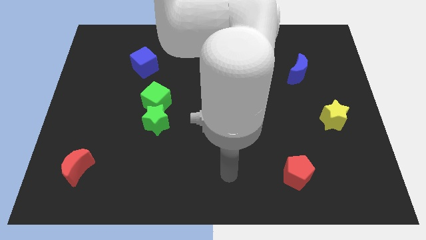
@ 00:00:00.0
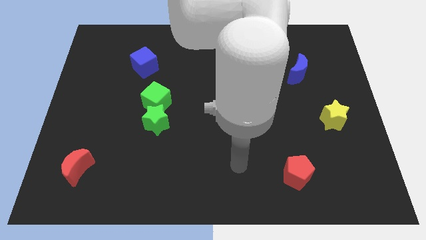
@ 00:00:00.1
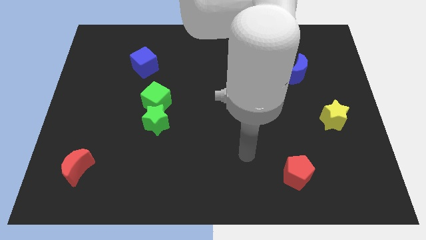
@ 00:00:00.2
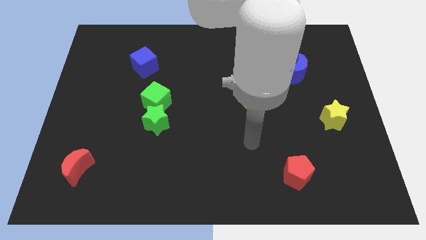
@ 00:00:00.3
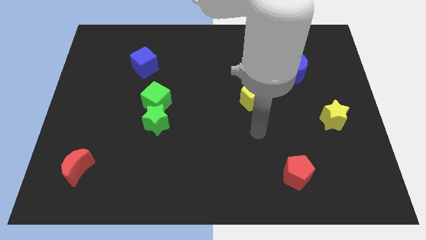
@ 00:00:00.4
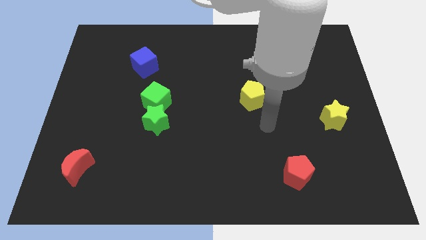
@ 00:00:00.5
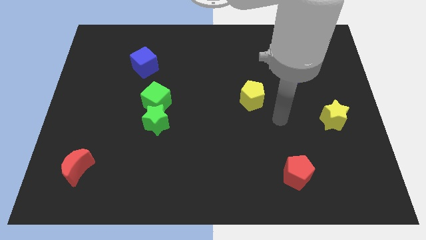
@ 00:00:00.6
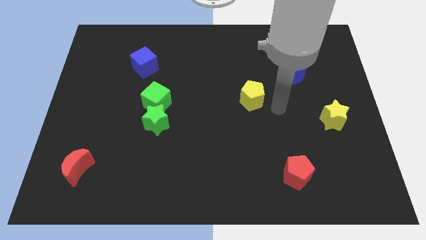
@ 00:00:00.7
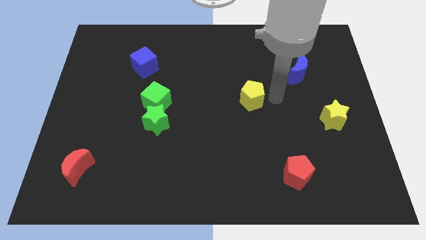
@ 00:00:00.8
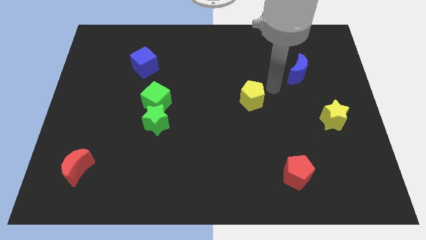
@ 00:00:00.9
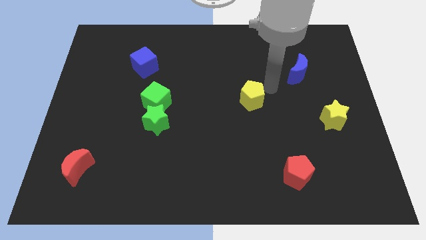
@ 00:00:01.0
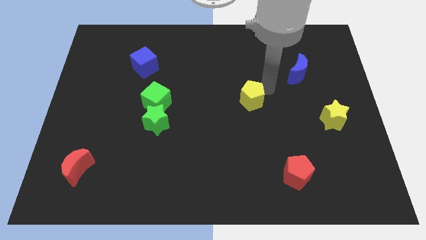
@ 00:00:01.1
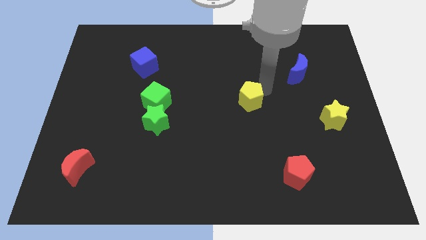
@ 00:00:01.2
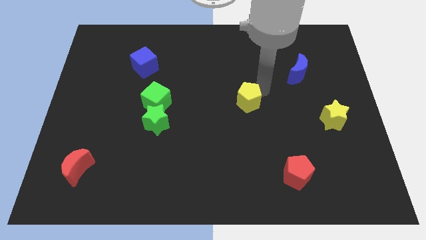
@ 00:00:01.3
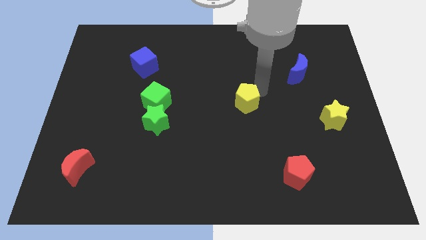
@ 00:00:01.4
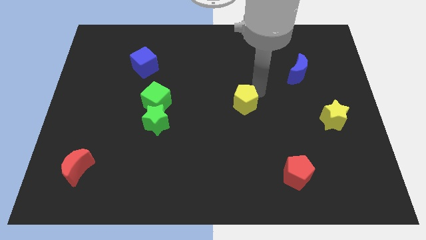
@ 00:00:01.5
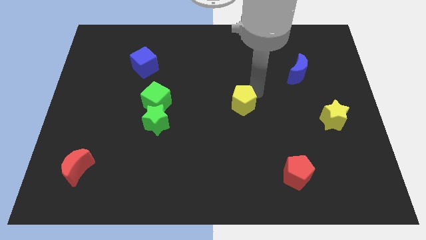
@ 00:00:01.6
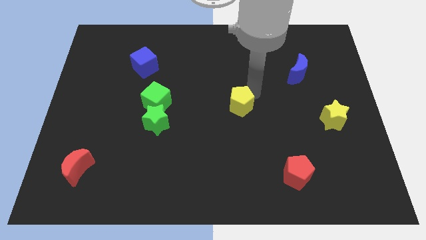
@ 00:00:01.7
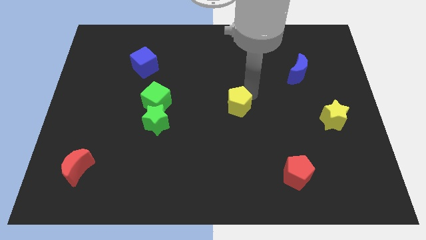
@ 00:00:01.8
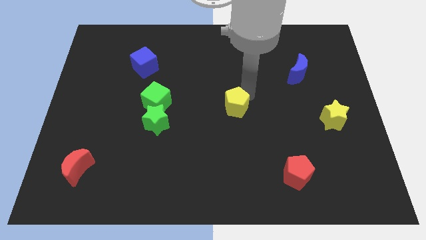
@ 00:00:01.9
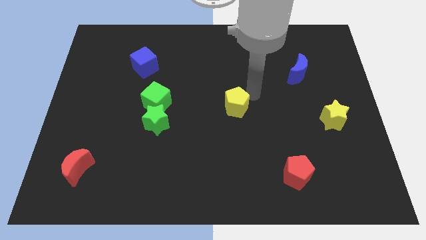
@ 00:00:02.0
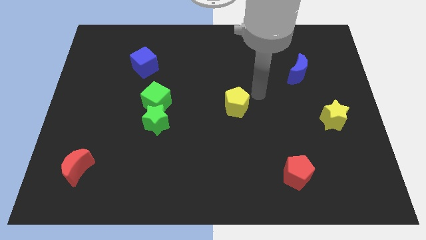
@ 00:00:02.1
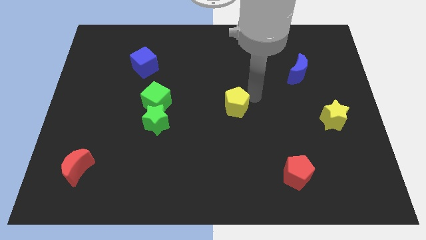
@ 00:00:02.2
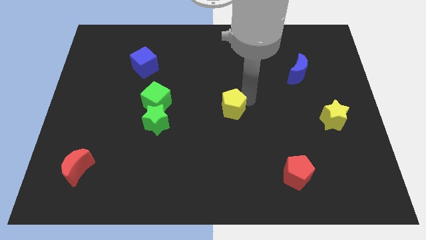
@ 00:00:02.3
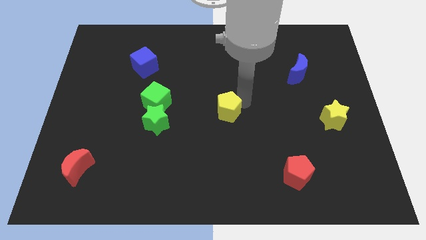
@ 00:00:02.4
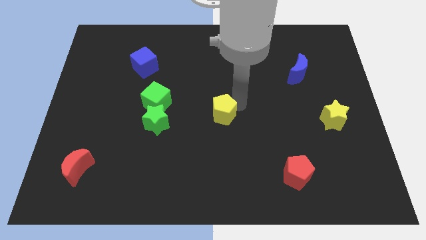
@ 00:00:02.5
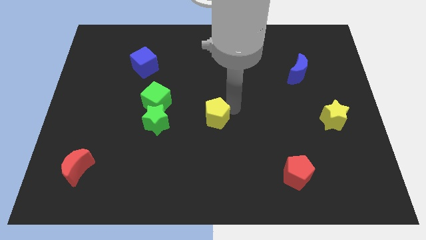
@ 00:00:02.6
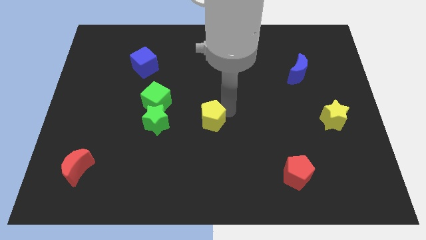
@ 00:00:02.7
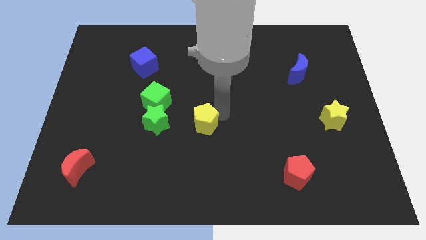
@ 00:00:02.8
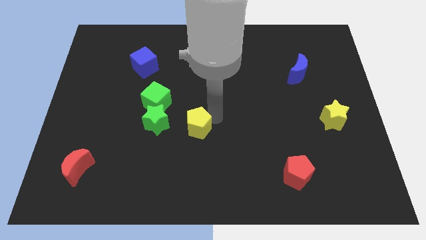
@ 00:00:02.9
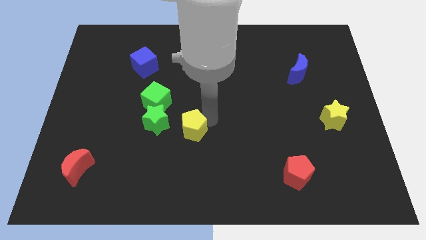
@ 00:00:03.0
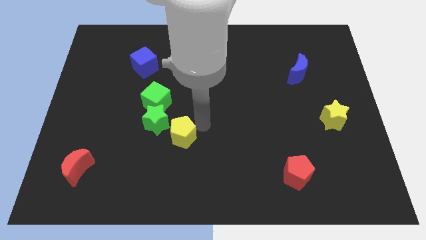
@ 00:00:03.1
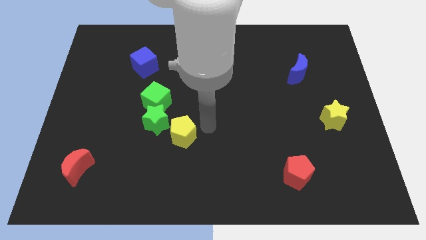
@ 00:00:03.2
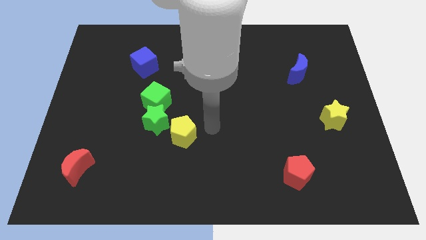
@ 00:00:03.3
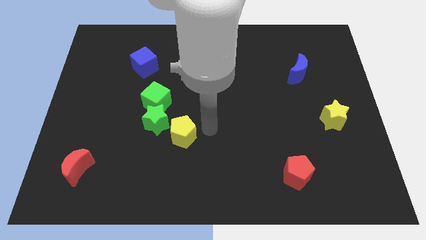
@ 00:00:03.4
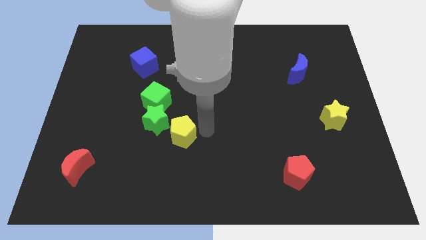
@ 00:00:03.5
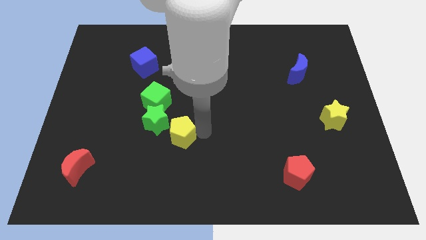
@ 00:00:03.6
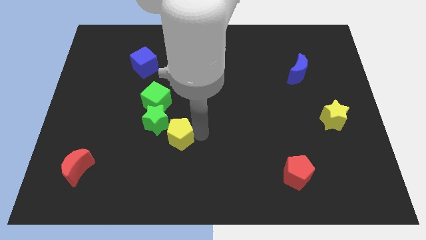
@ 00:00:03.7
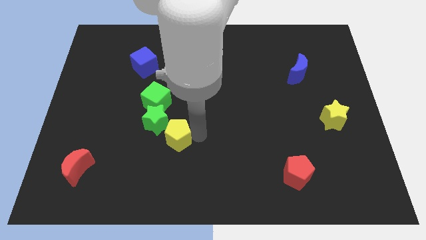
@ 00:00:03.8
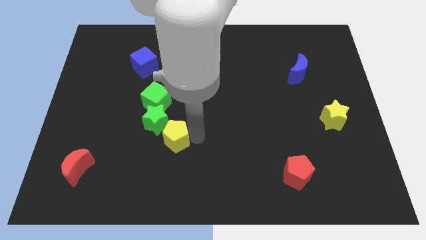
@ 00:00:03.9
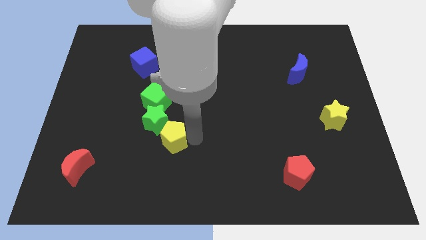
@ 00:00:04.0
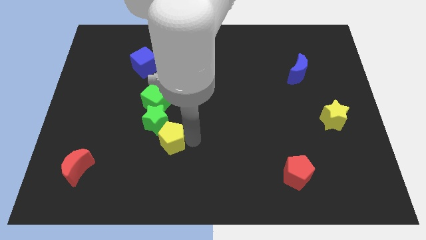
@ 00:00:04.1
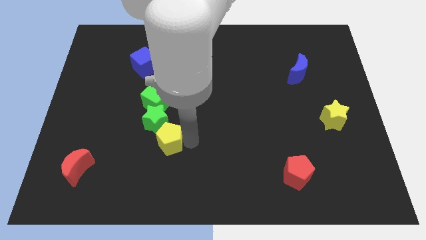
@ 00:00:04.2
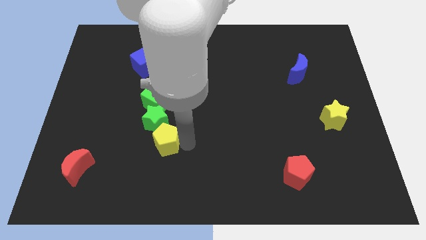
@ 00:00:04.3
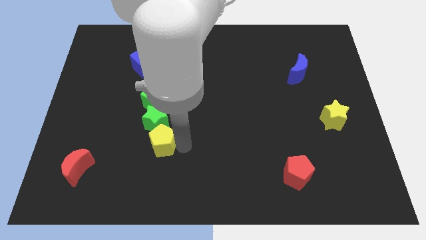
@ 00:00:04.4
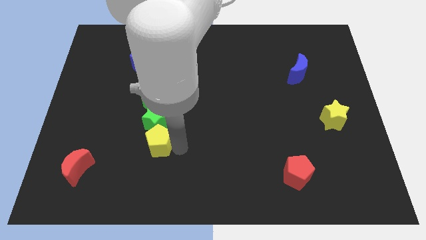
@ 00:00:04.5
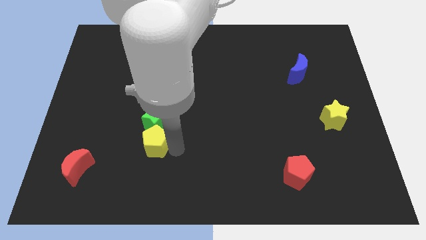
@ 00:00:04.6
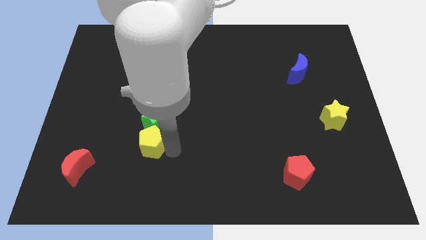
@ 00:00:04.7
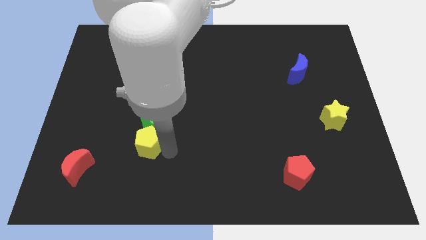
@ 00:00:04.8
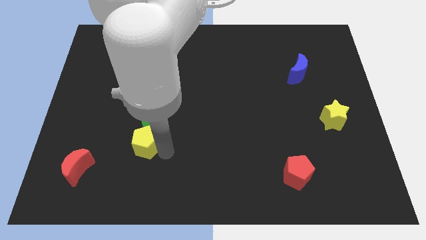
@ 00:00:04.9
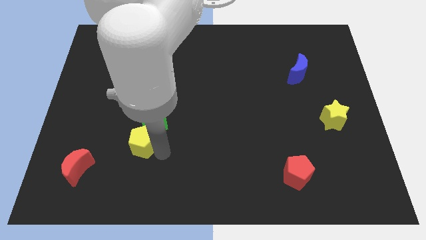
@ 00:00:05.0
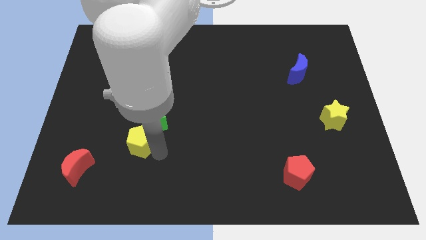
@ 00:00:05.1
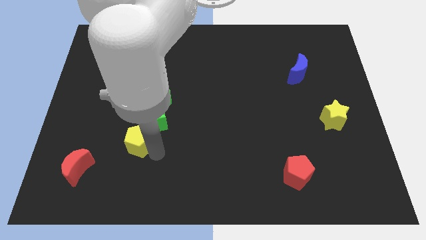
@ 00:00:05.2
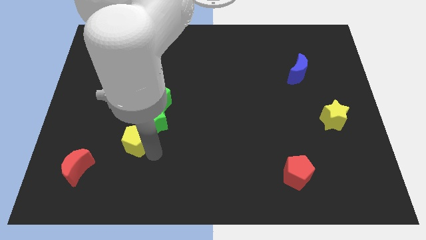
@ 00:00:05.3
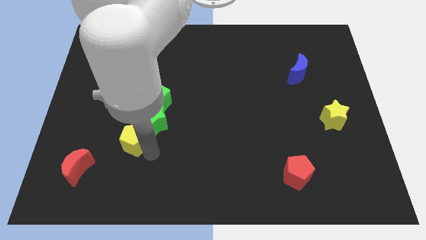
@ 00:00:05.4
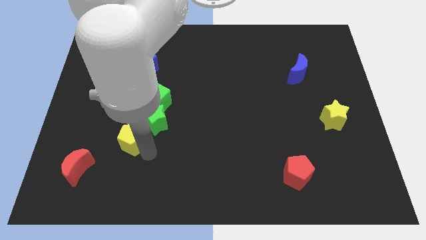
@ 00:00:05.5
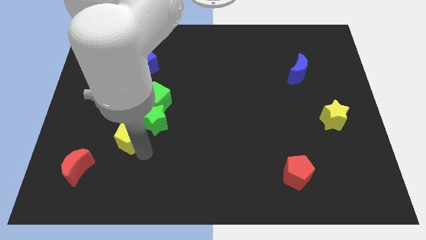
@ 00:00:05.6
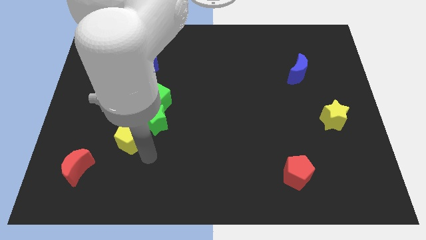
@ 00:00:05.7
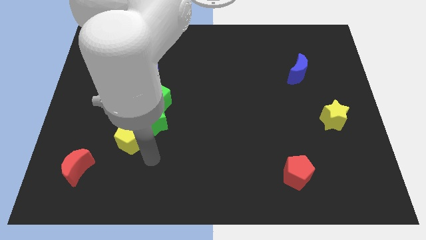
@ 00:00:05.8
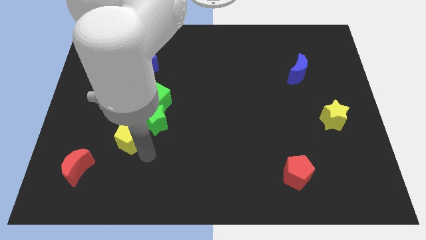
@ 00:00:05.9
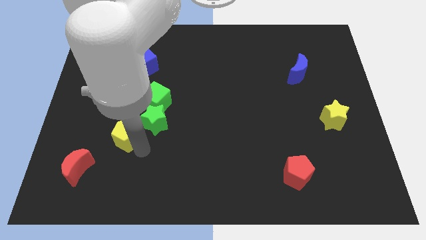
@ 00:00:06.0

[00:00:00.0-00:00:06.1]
move the yellow pentagon to the left of the green star
